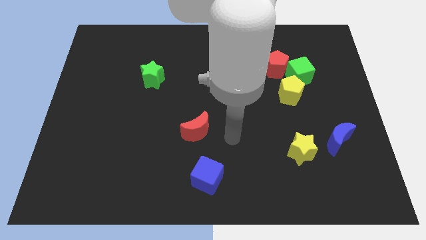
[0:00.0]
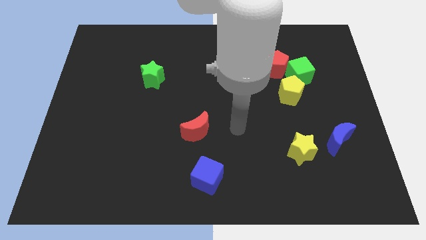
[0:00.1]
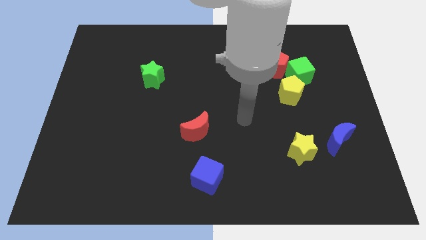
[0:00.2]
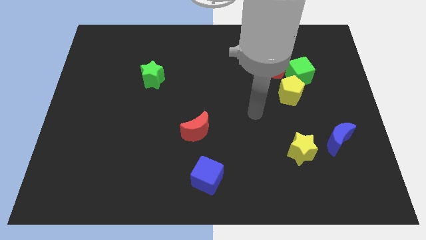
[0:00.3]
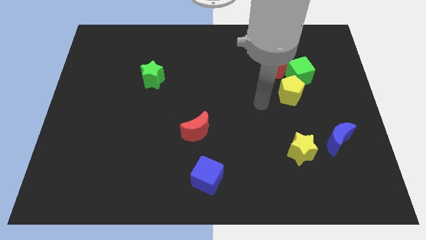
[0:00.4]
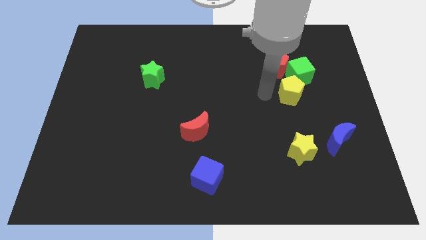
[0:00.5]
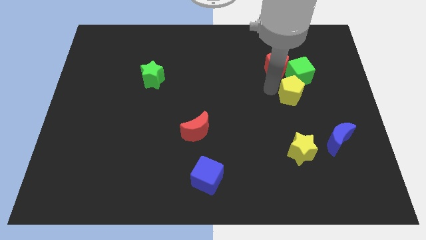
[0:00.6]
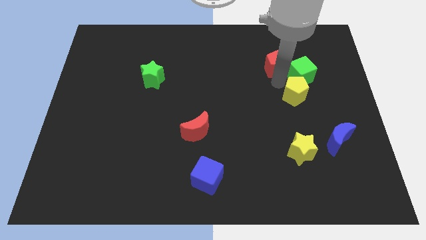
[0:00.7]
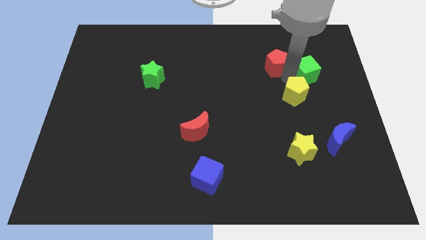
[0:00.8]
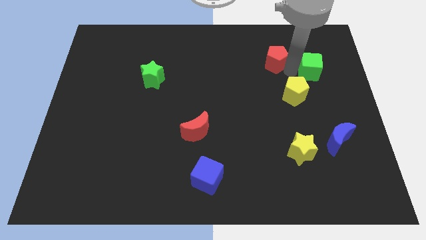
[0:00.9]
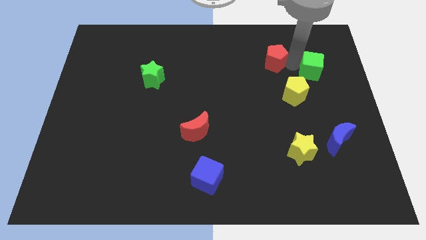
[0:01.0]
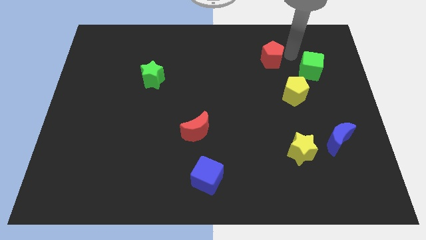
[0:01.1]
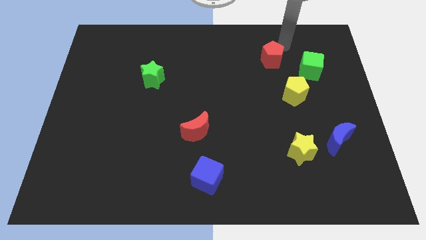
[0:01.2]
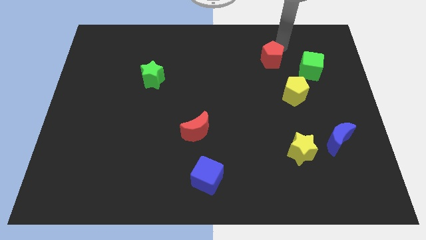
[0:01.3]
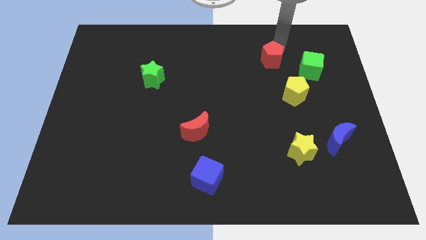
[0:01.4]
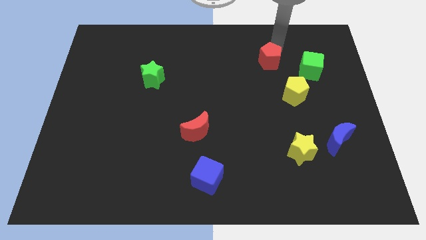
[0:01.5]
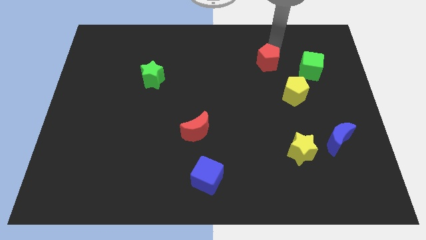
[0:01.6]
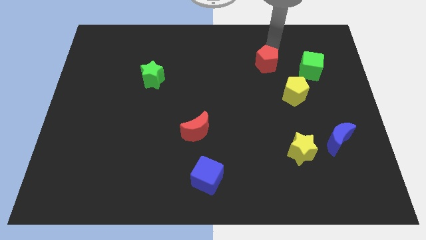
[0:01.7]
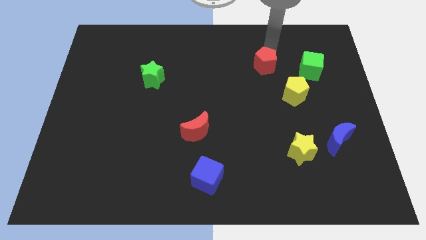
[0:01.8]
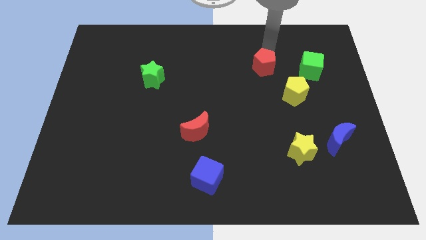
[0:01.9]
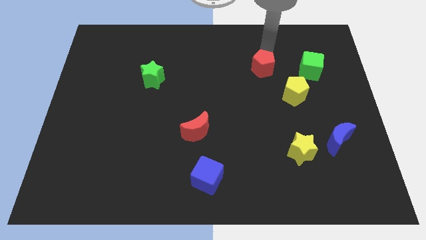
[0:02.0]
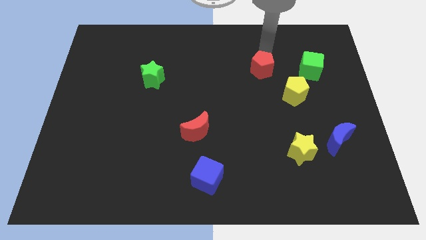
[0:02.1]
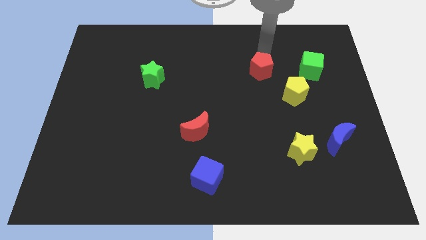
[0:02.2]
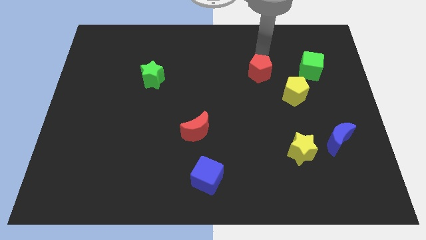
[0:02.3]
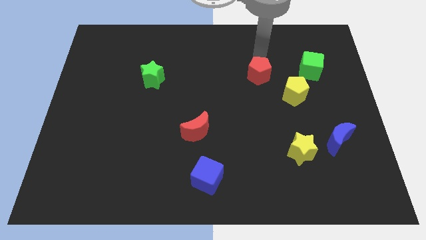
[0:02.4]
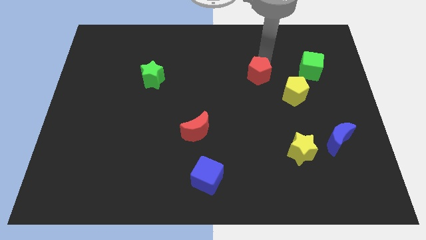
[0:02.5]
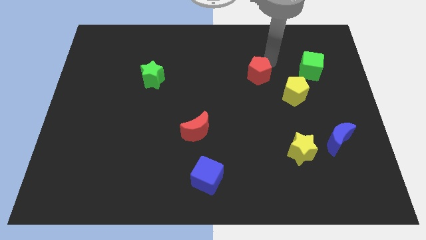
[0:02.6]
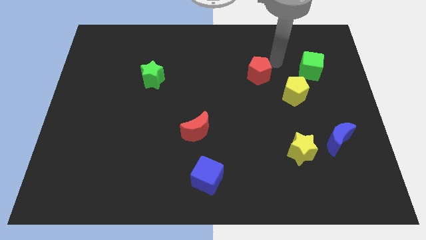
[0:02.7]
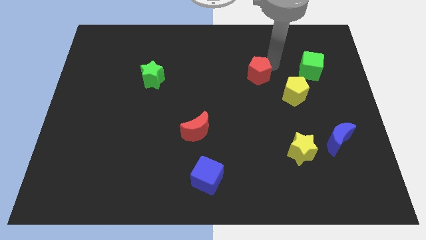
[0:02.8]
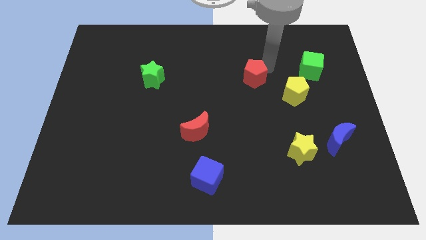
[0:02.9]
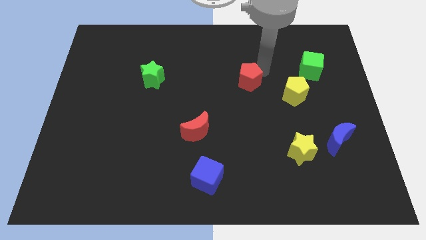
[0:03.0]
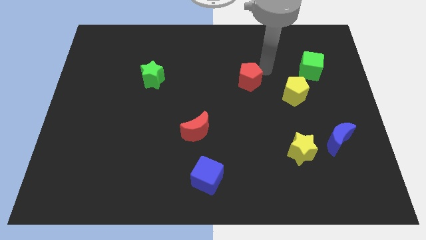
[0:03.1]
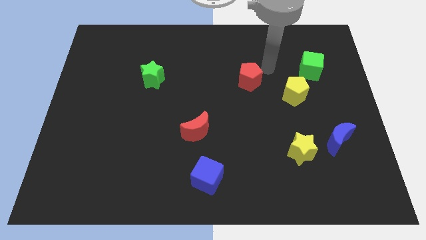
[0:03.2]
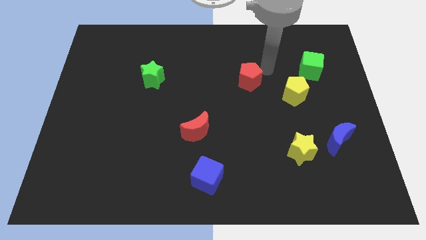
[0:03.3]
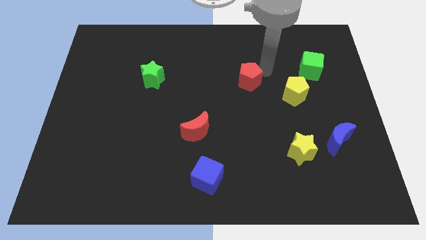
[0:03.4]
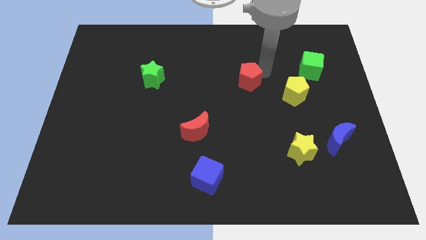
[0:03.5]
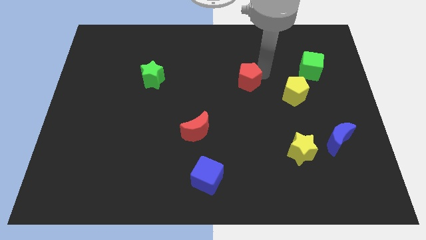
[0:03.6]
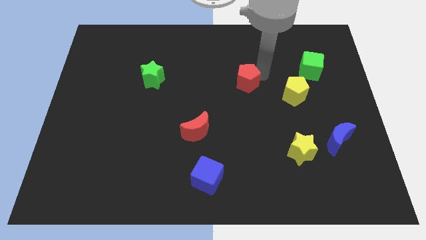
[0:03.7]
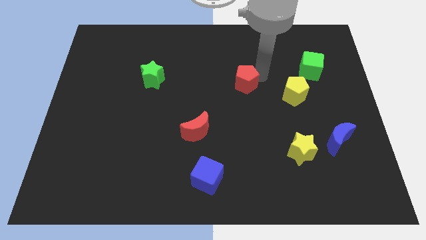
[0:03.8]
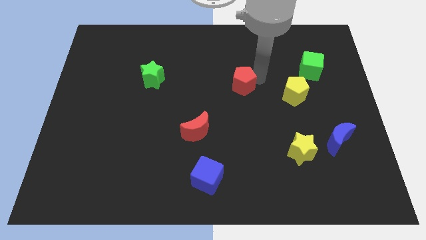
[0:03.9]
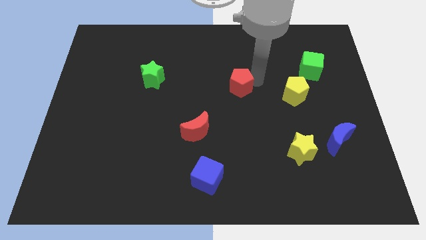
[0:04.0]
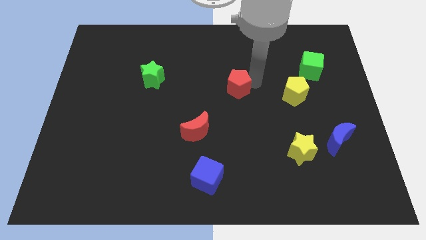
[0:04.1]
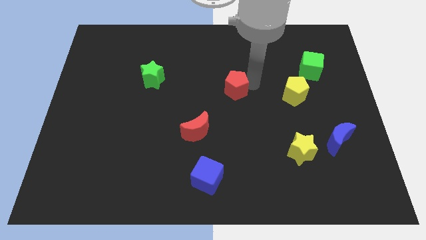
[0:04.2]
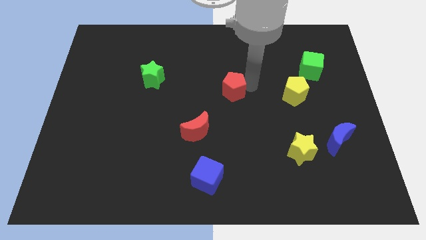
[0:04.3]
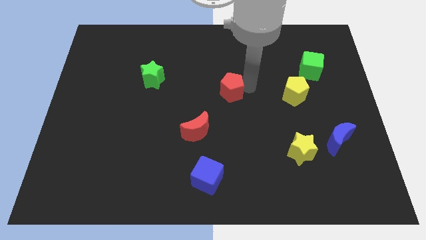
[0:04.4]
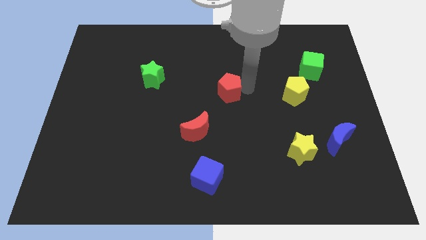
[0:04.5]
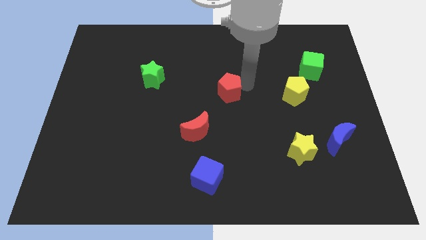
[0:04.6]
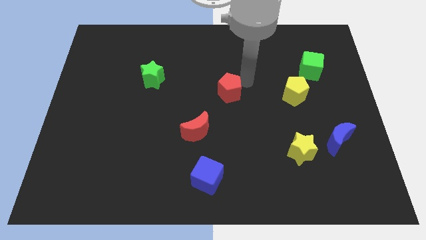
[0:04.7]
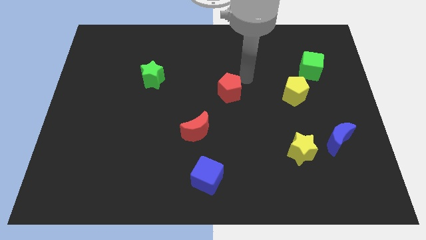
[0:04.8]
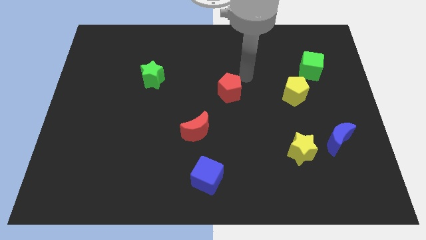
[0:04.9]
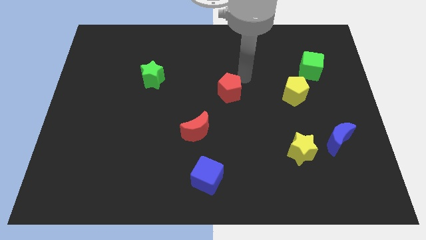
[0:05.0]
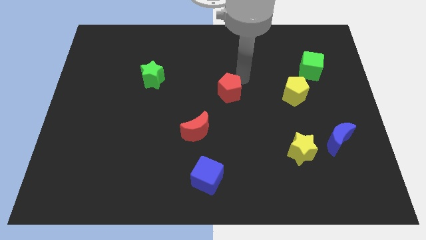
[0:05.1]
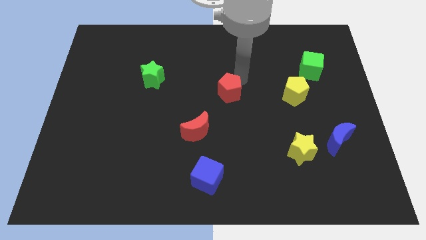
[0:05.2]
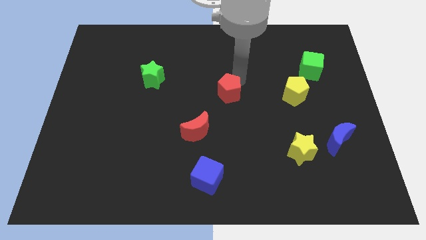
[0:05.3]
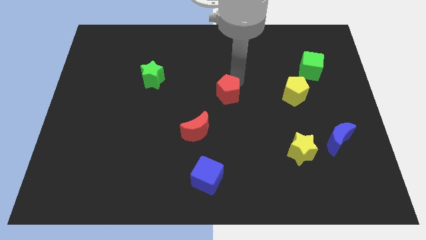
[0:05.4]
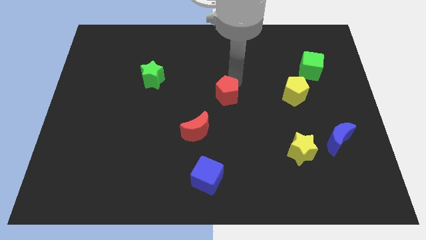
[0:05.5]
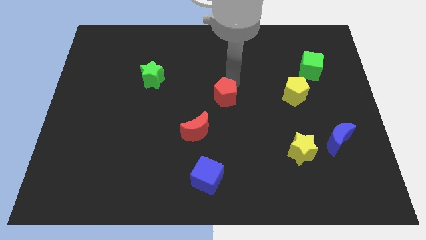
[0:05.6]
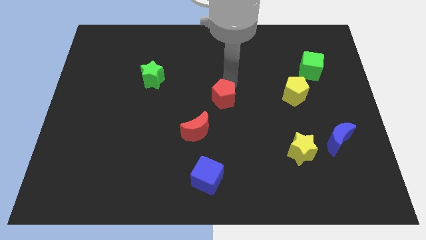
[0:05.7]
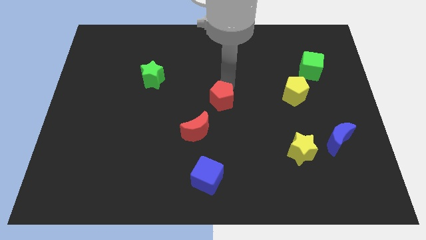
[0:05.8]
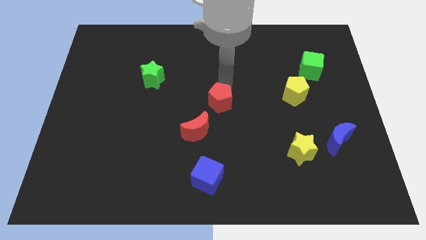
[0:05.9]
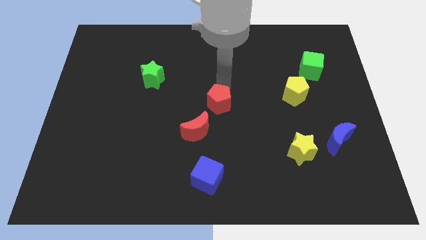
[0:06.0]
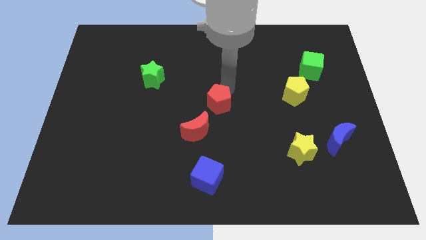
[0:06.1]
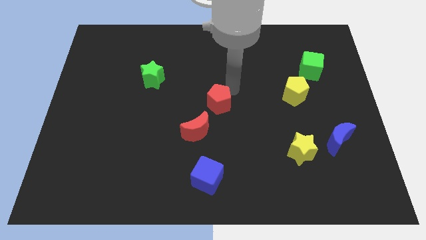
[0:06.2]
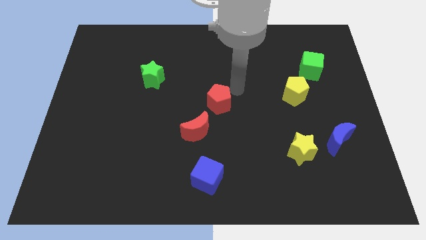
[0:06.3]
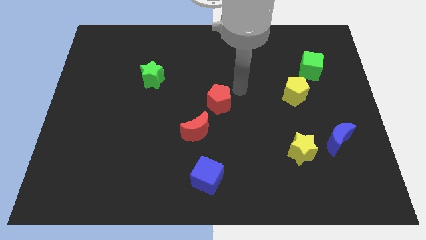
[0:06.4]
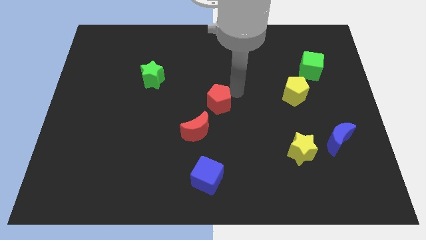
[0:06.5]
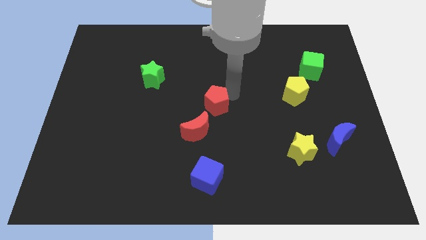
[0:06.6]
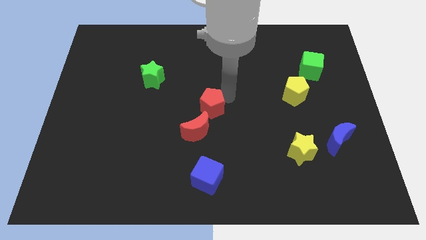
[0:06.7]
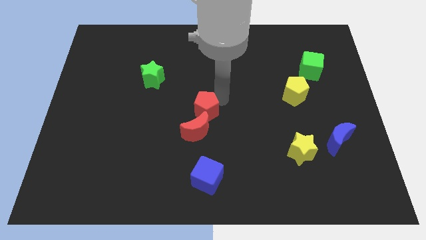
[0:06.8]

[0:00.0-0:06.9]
put the red pentagon towards the red moon
